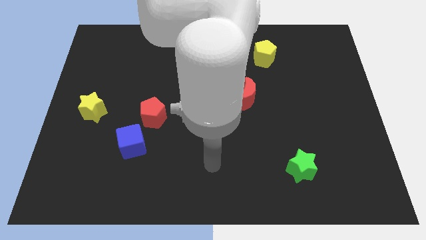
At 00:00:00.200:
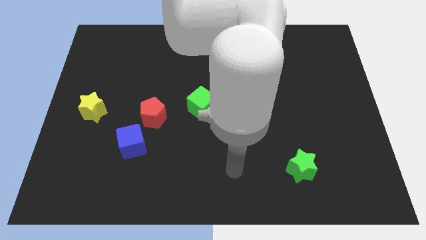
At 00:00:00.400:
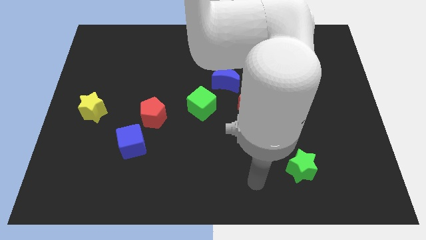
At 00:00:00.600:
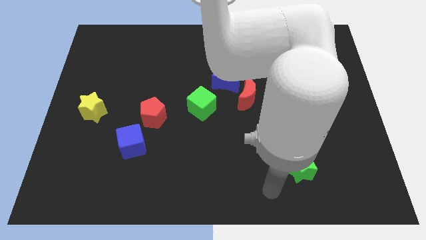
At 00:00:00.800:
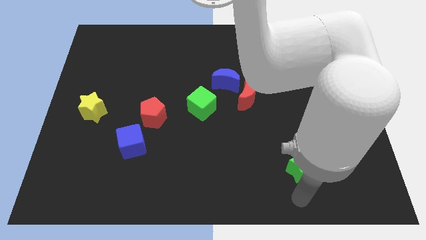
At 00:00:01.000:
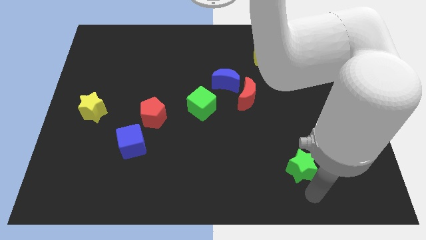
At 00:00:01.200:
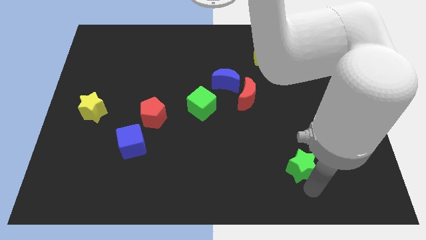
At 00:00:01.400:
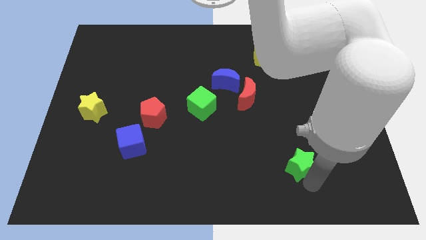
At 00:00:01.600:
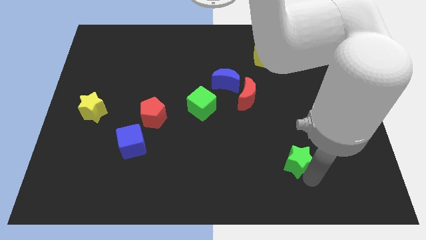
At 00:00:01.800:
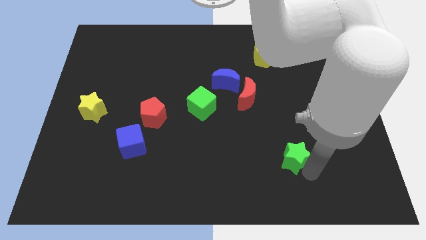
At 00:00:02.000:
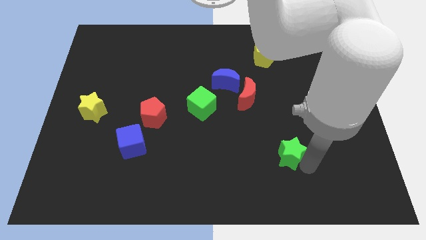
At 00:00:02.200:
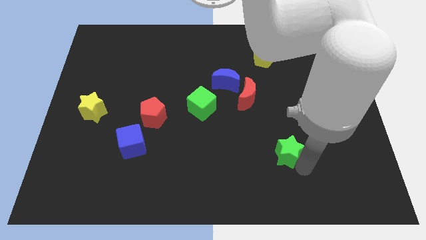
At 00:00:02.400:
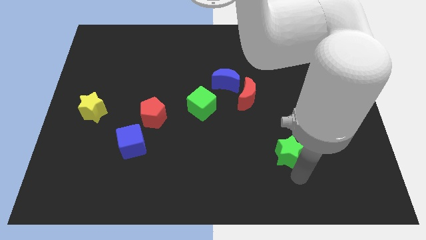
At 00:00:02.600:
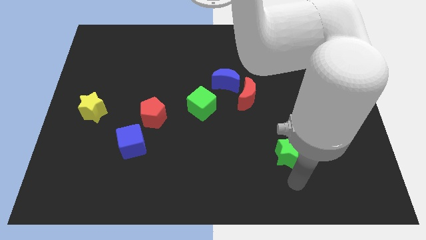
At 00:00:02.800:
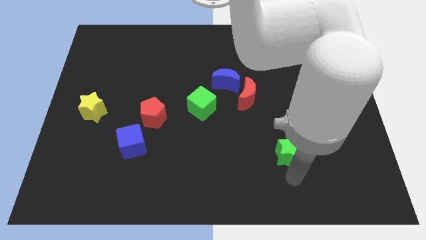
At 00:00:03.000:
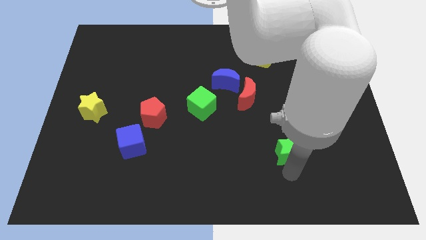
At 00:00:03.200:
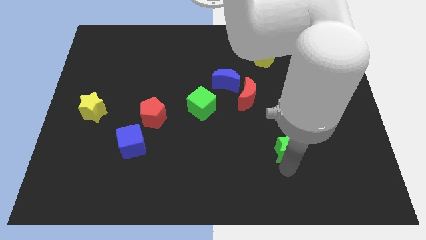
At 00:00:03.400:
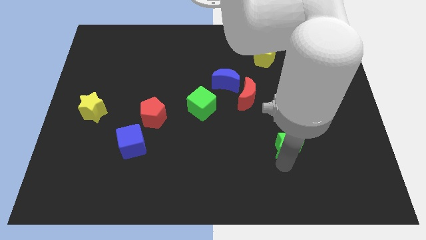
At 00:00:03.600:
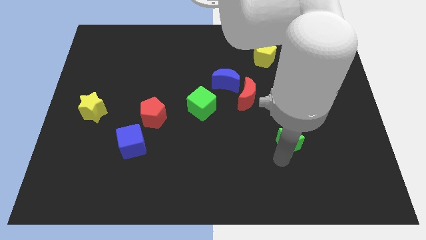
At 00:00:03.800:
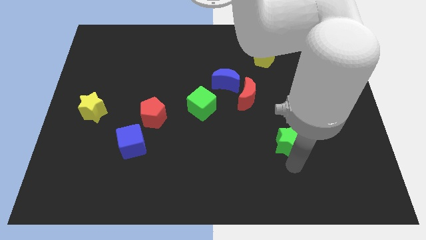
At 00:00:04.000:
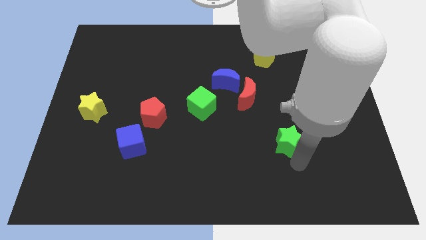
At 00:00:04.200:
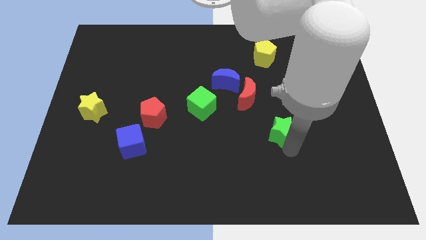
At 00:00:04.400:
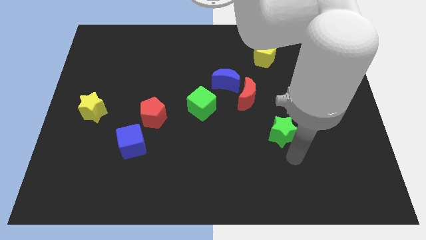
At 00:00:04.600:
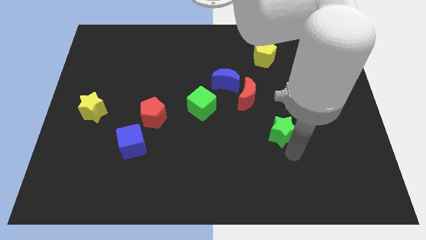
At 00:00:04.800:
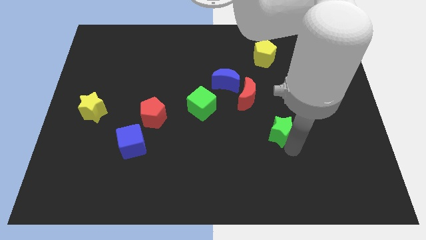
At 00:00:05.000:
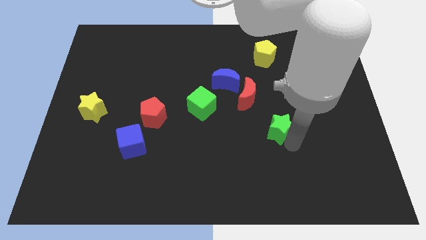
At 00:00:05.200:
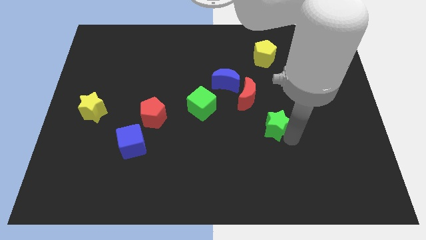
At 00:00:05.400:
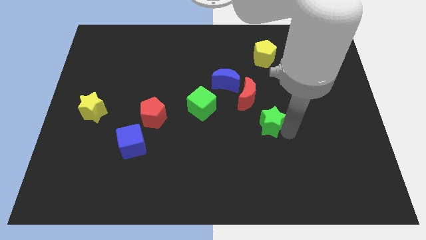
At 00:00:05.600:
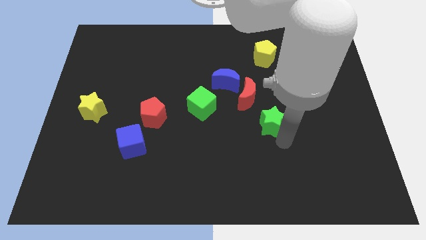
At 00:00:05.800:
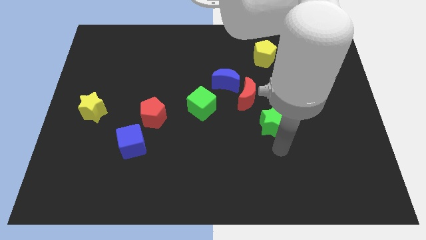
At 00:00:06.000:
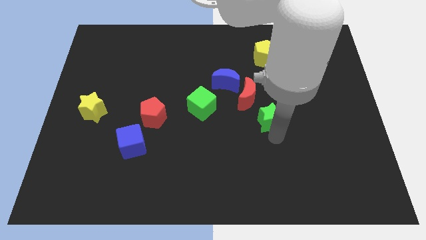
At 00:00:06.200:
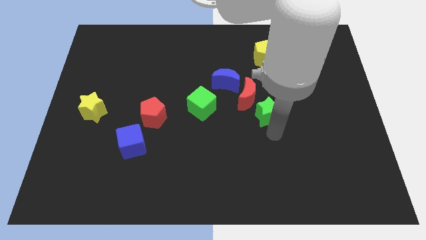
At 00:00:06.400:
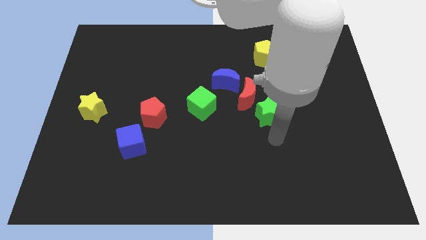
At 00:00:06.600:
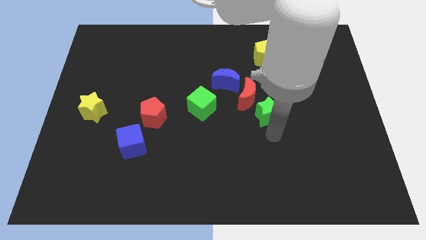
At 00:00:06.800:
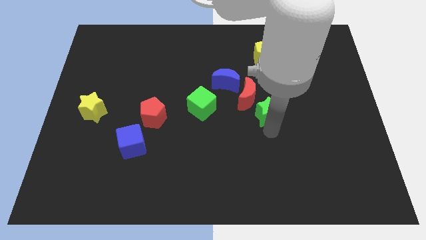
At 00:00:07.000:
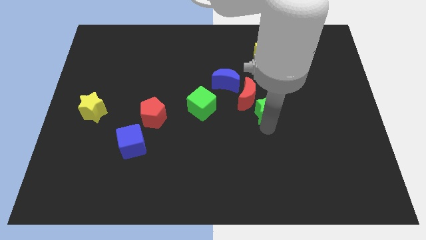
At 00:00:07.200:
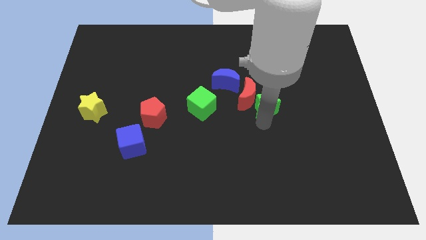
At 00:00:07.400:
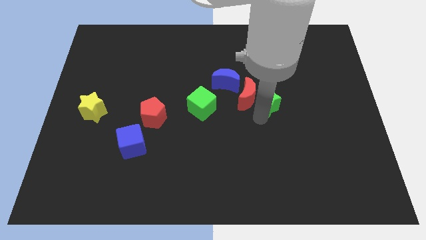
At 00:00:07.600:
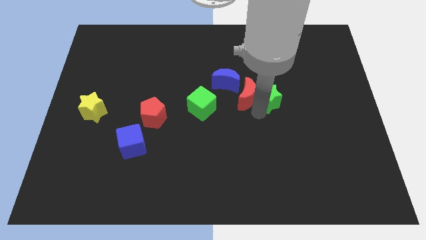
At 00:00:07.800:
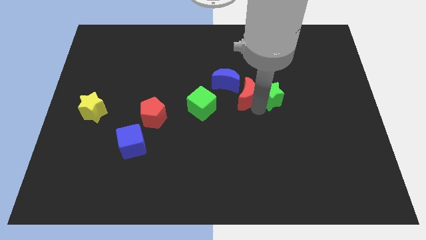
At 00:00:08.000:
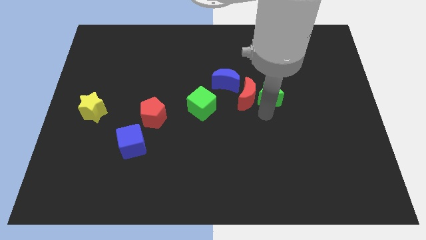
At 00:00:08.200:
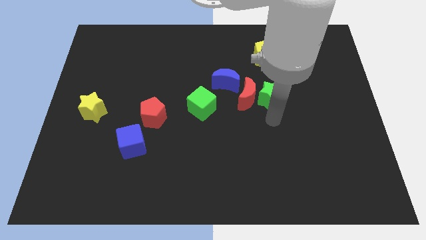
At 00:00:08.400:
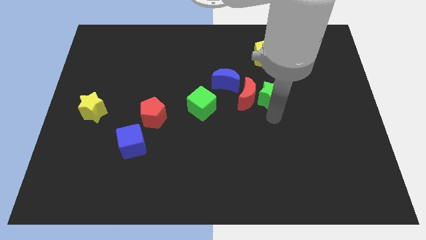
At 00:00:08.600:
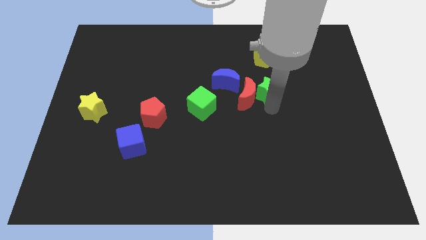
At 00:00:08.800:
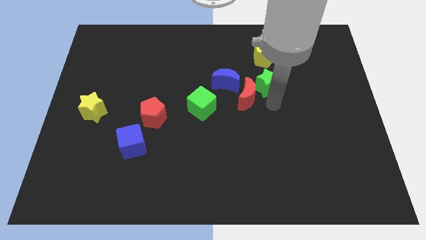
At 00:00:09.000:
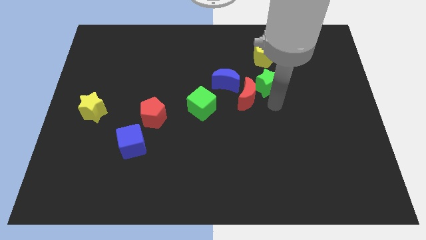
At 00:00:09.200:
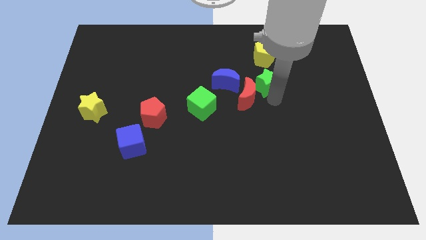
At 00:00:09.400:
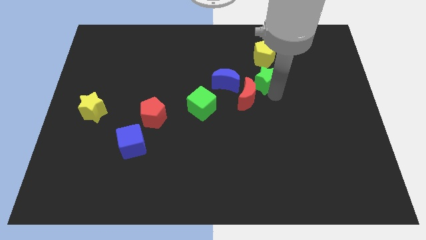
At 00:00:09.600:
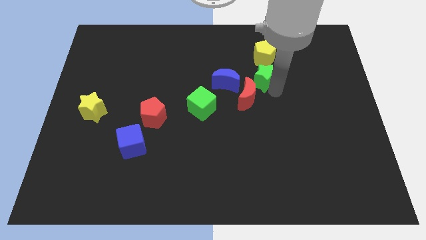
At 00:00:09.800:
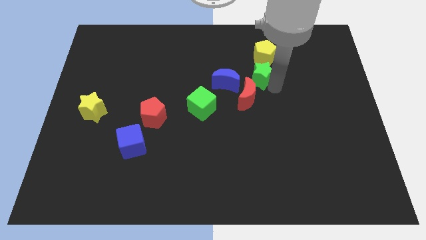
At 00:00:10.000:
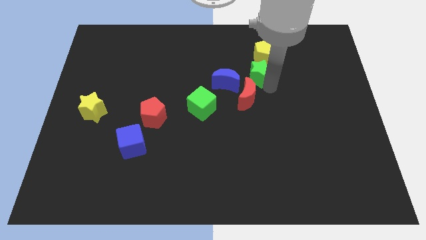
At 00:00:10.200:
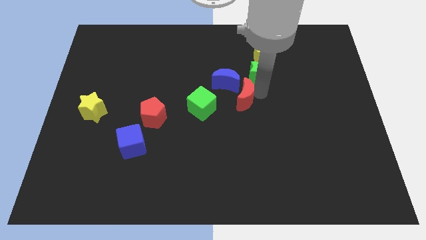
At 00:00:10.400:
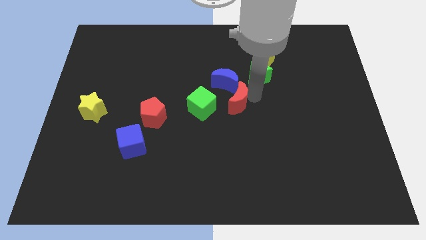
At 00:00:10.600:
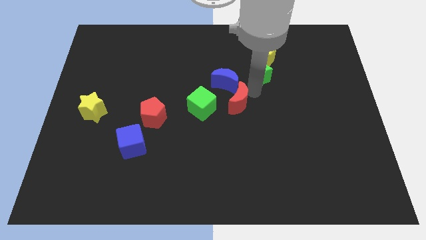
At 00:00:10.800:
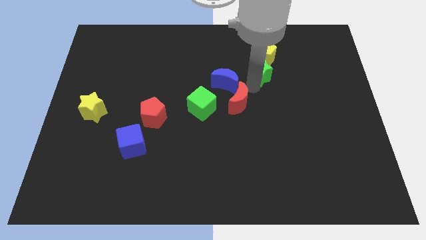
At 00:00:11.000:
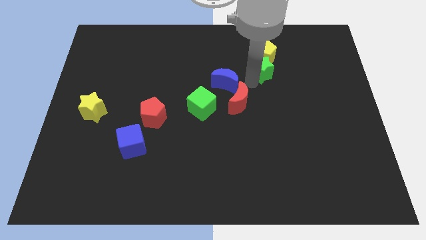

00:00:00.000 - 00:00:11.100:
put the green star close to the yellow pentagon

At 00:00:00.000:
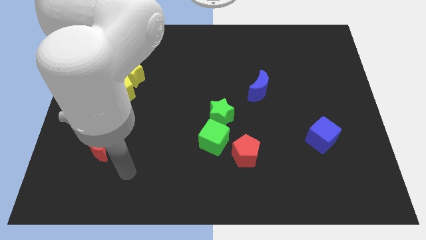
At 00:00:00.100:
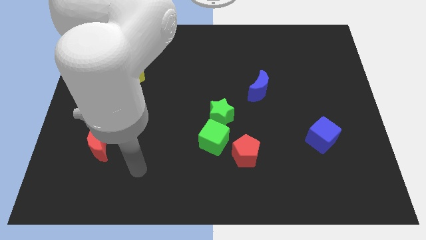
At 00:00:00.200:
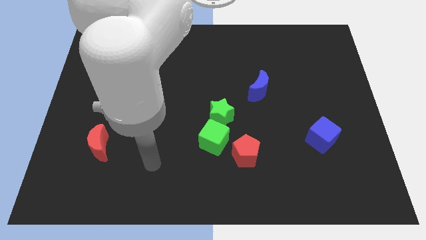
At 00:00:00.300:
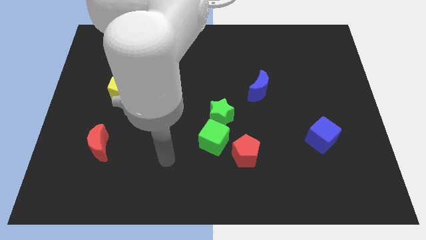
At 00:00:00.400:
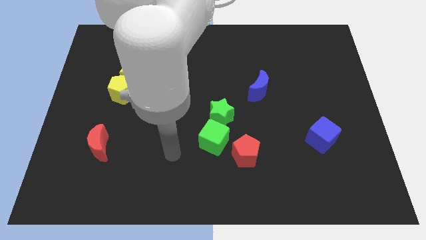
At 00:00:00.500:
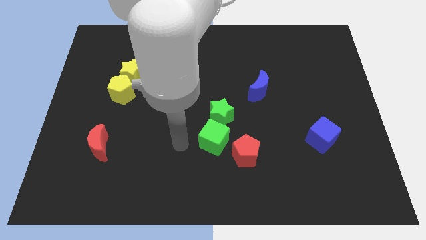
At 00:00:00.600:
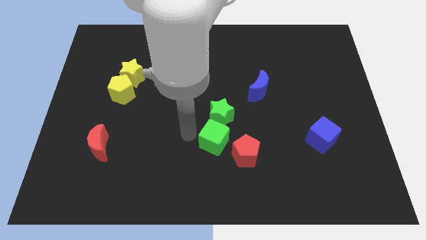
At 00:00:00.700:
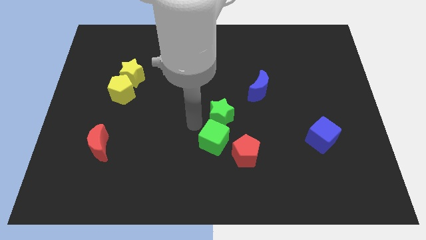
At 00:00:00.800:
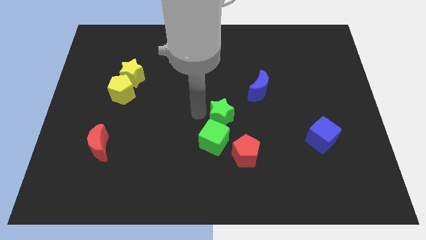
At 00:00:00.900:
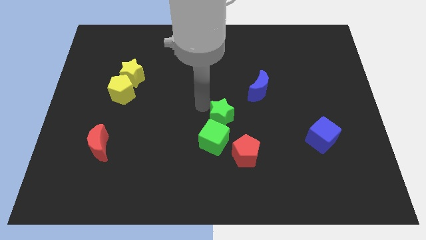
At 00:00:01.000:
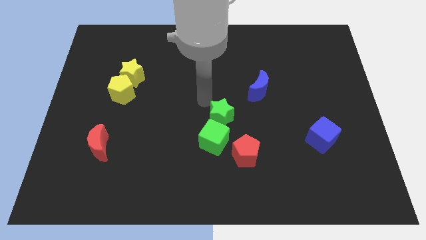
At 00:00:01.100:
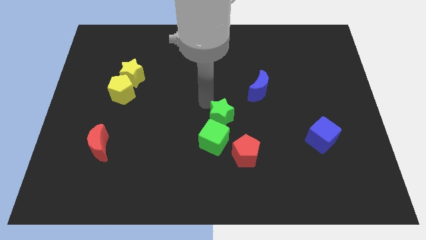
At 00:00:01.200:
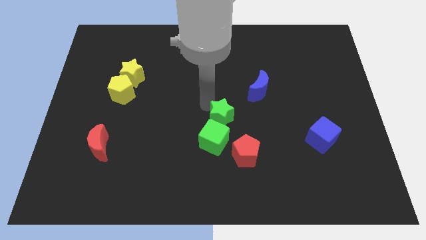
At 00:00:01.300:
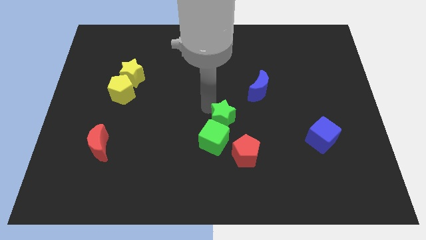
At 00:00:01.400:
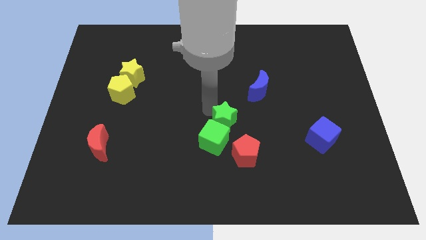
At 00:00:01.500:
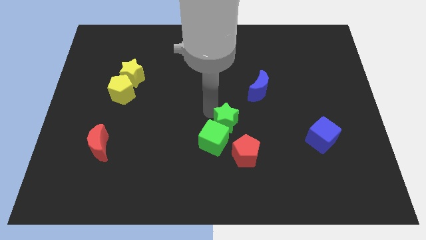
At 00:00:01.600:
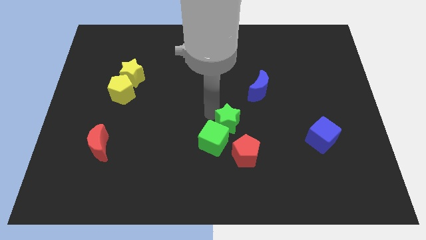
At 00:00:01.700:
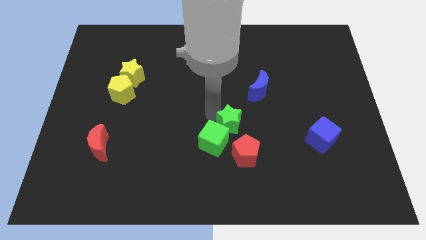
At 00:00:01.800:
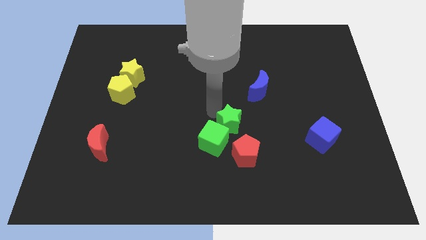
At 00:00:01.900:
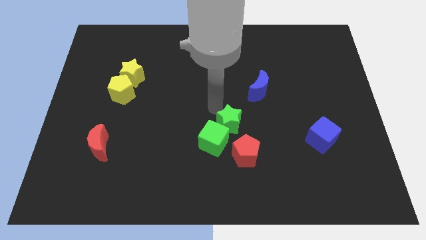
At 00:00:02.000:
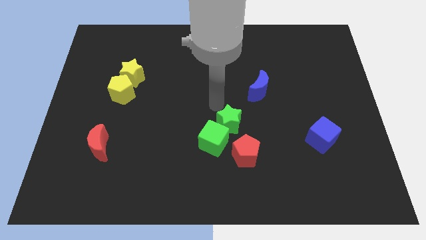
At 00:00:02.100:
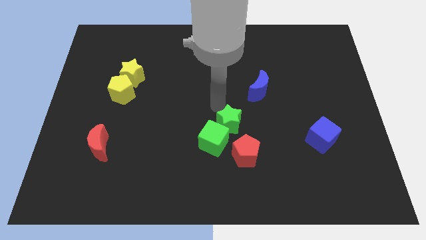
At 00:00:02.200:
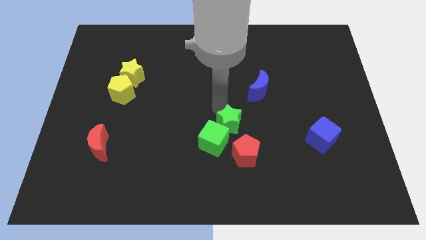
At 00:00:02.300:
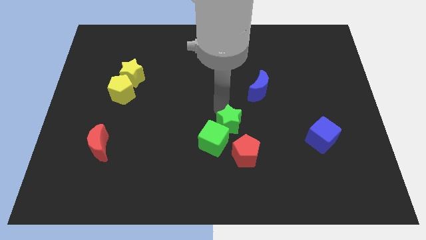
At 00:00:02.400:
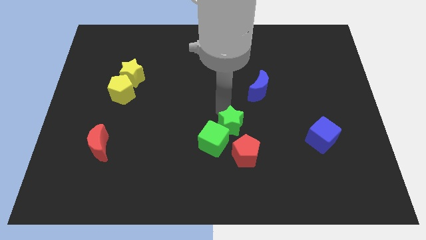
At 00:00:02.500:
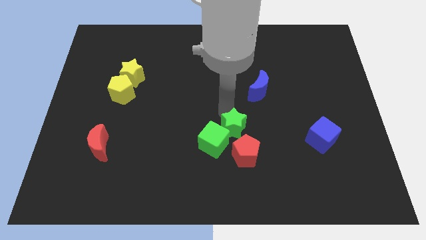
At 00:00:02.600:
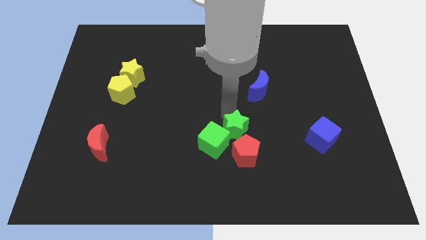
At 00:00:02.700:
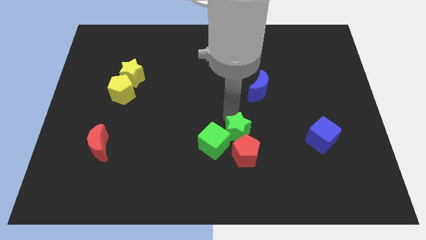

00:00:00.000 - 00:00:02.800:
put the green star next to the red pentagon
